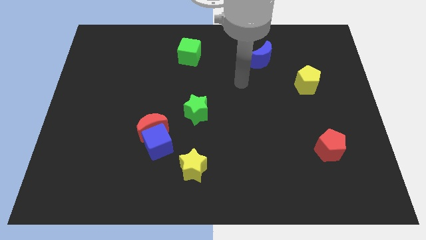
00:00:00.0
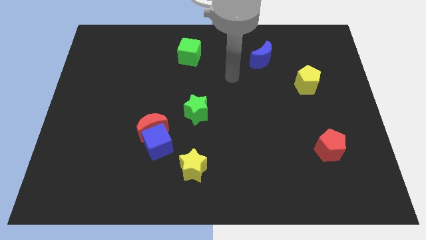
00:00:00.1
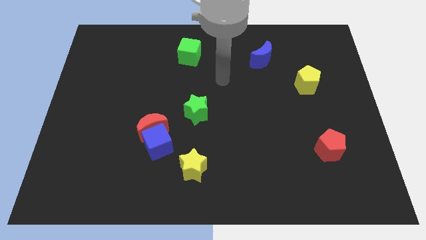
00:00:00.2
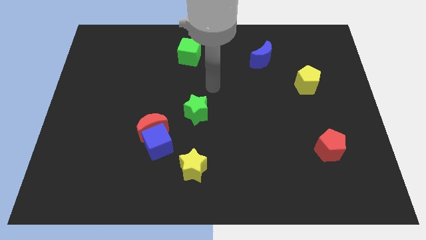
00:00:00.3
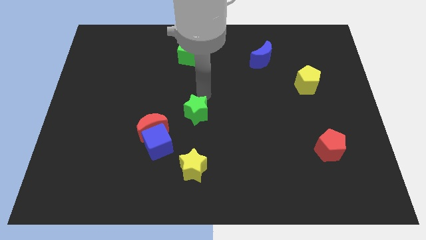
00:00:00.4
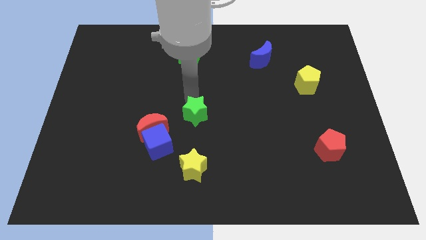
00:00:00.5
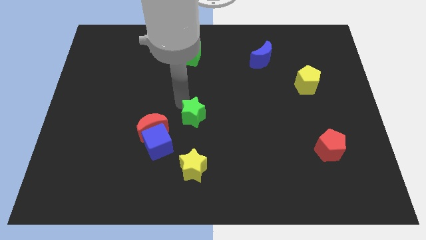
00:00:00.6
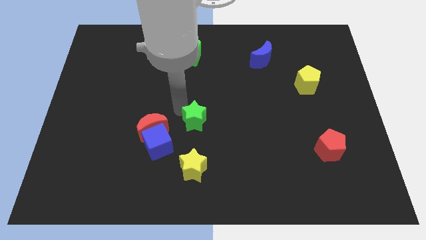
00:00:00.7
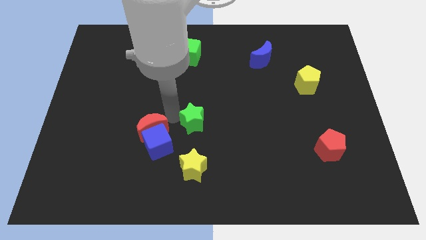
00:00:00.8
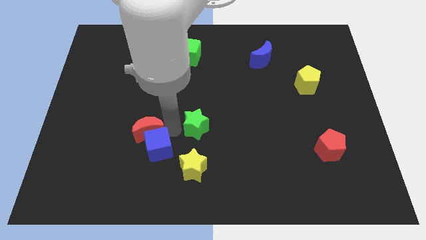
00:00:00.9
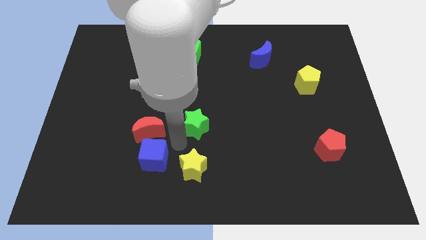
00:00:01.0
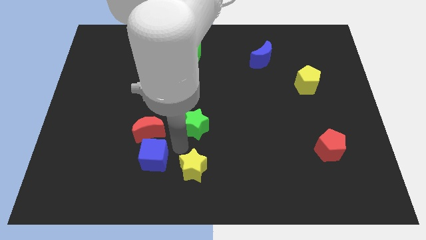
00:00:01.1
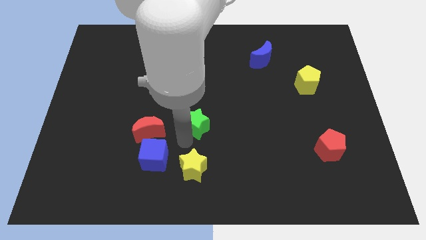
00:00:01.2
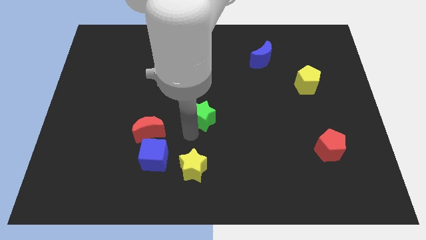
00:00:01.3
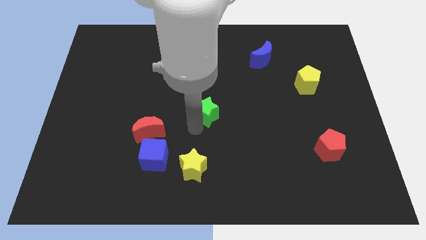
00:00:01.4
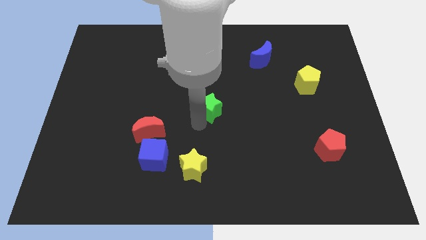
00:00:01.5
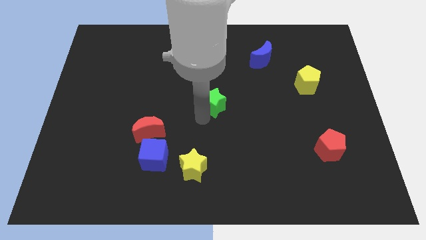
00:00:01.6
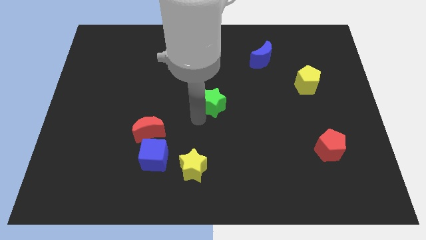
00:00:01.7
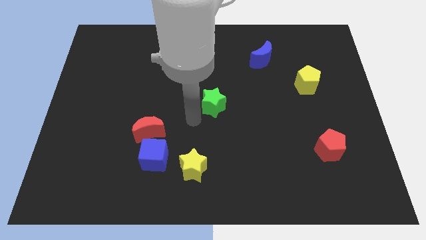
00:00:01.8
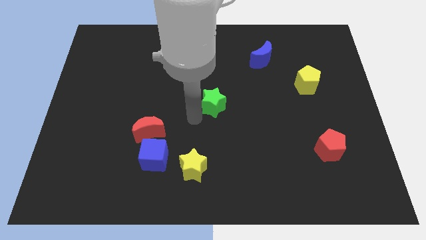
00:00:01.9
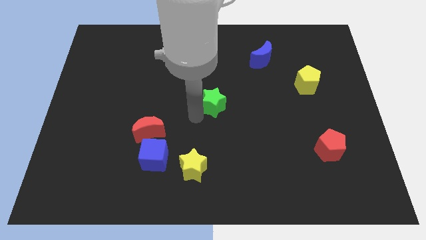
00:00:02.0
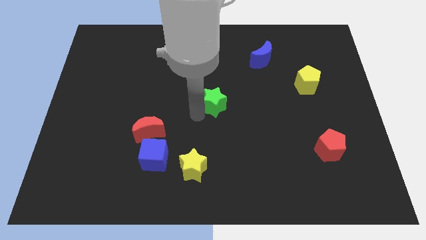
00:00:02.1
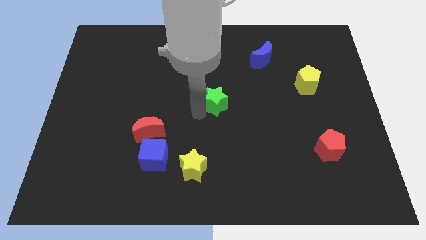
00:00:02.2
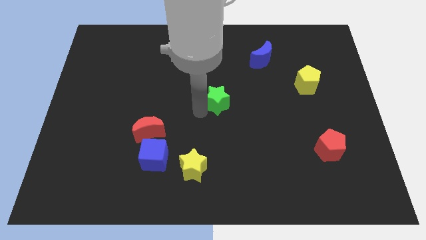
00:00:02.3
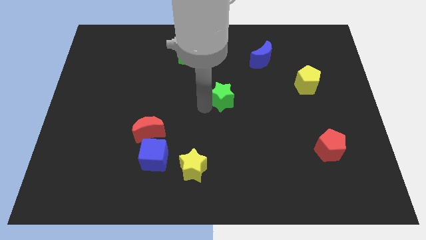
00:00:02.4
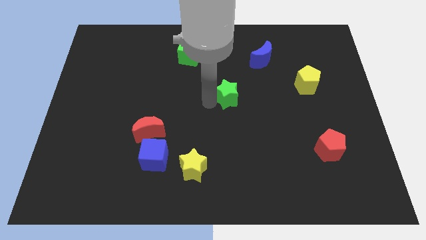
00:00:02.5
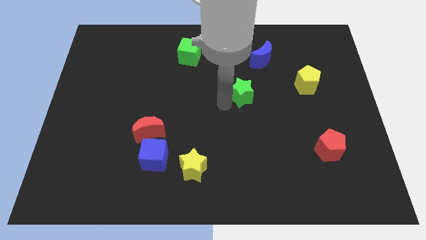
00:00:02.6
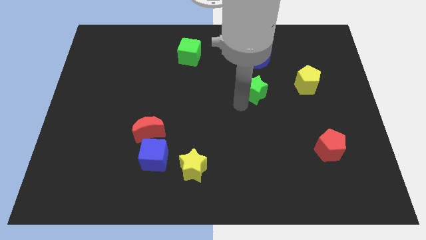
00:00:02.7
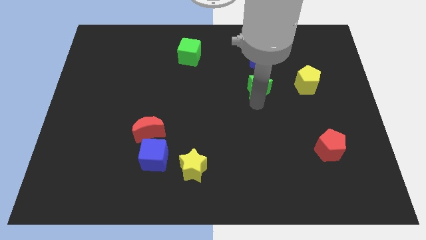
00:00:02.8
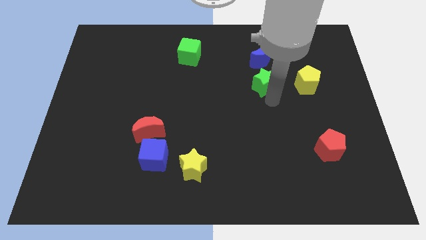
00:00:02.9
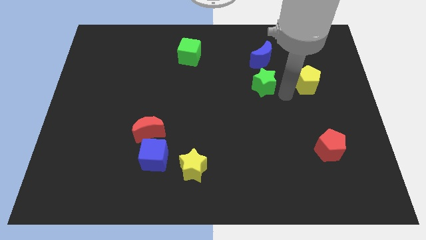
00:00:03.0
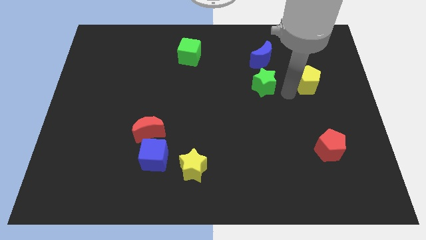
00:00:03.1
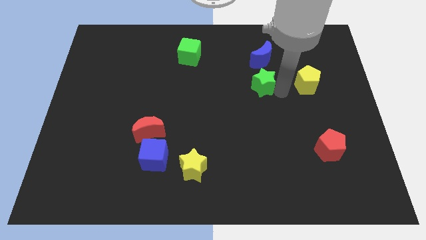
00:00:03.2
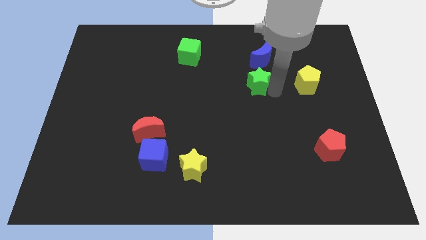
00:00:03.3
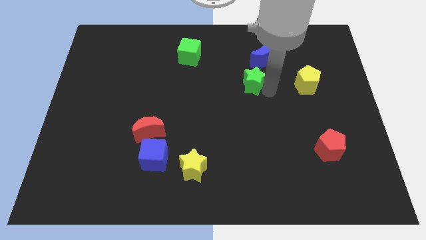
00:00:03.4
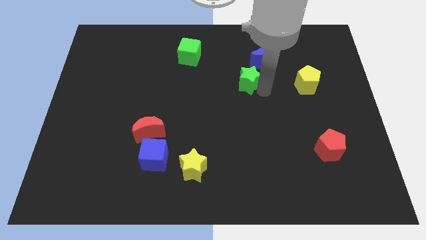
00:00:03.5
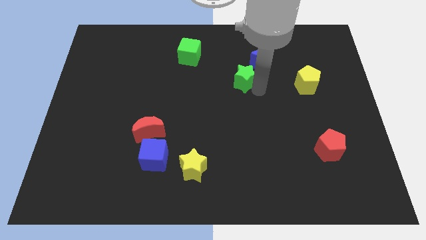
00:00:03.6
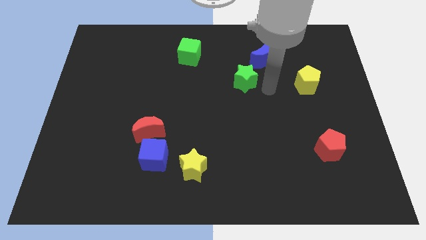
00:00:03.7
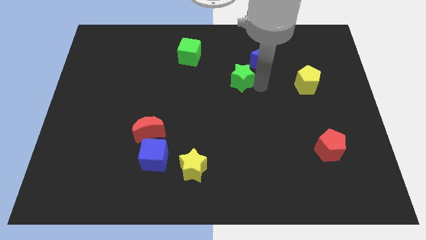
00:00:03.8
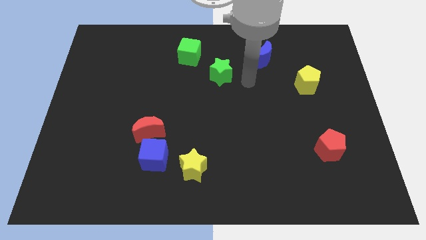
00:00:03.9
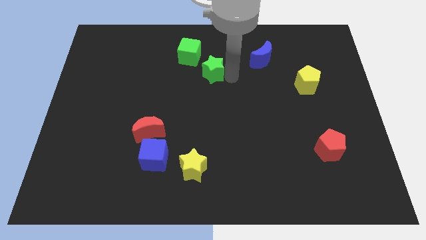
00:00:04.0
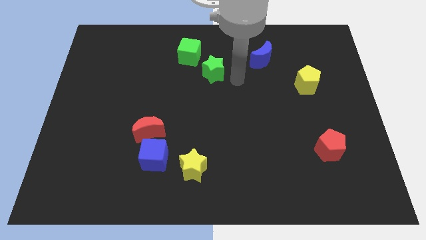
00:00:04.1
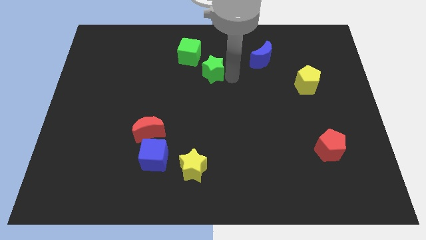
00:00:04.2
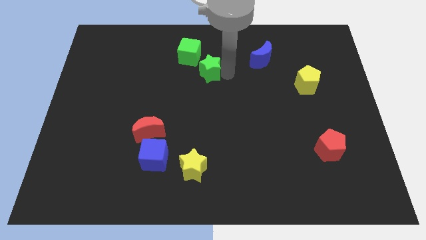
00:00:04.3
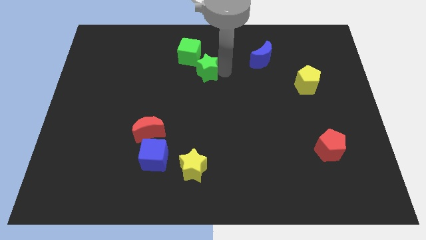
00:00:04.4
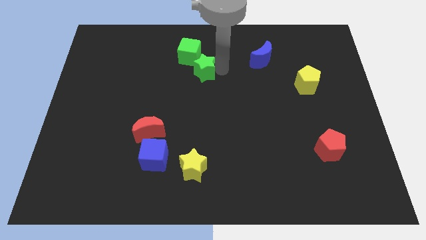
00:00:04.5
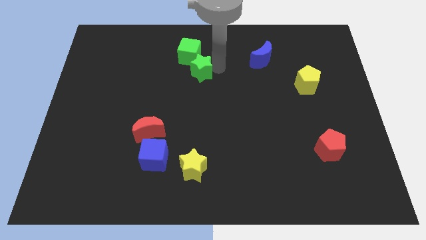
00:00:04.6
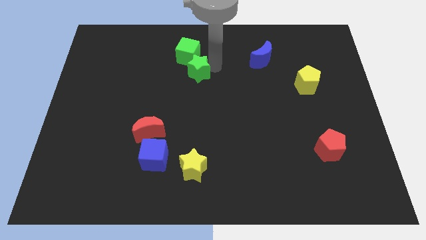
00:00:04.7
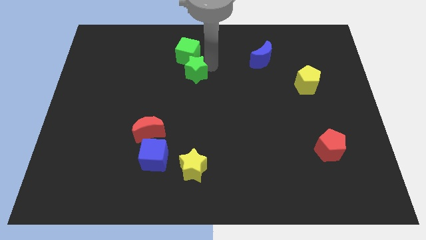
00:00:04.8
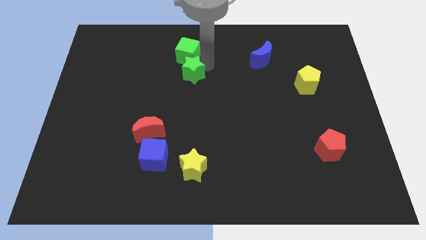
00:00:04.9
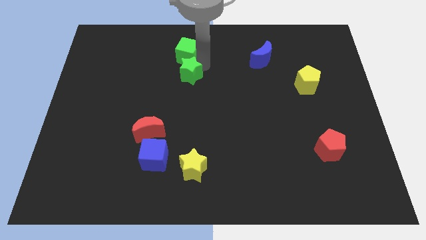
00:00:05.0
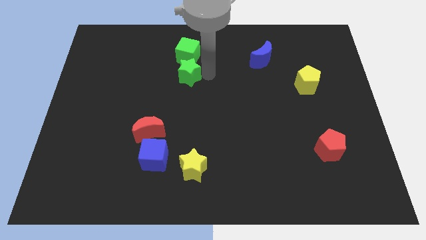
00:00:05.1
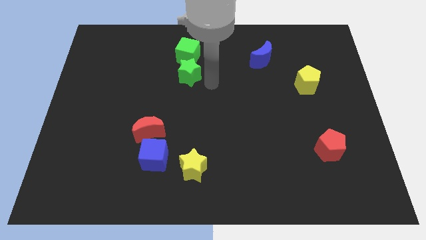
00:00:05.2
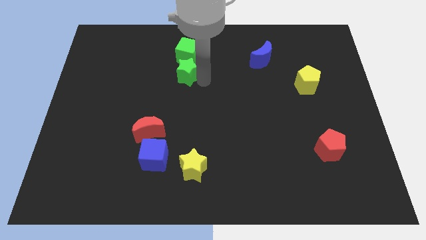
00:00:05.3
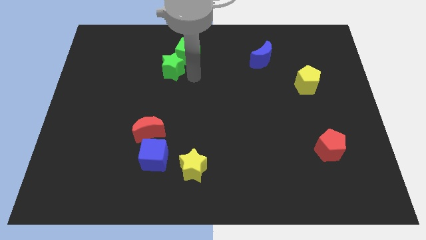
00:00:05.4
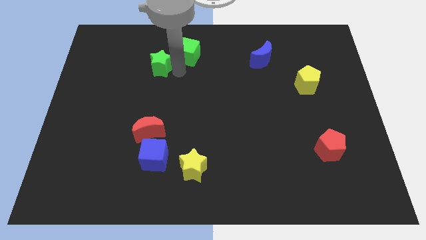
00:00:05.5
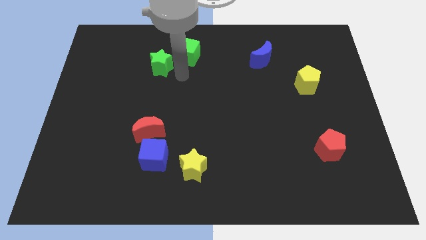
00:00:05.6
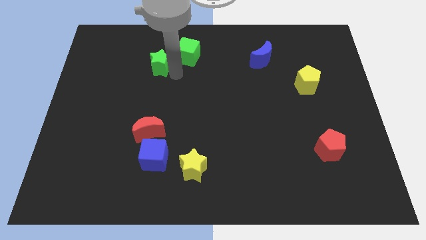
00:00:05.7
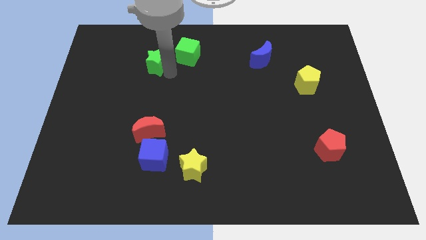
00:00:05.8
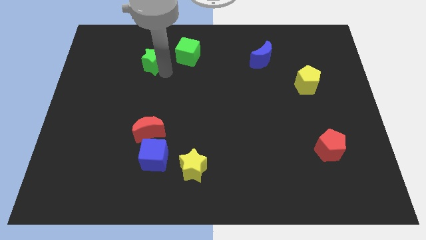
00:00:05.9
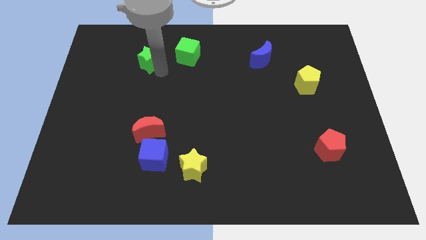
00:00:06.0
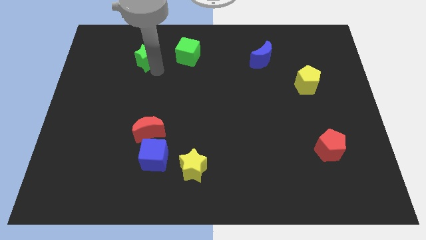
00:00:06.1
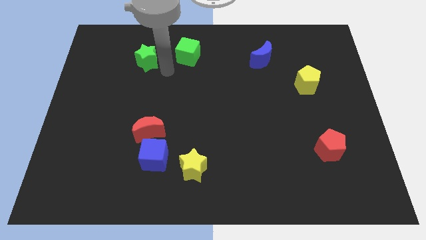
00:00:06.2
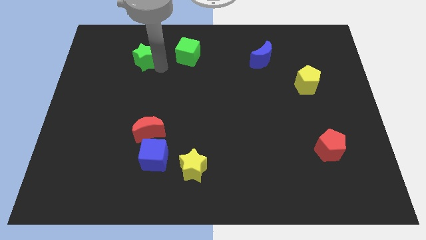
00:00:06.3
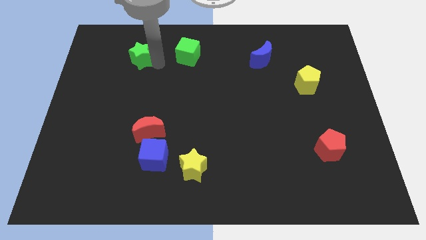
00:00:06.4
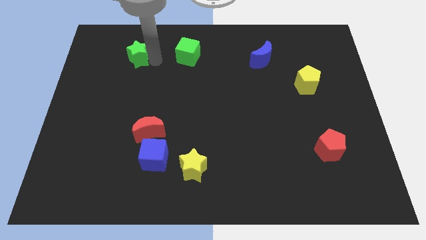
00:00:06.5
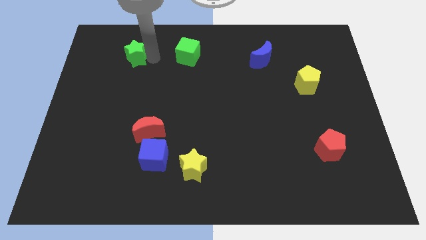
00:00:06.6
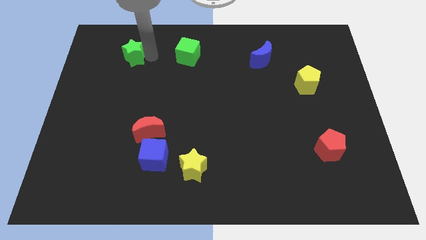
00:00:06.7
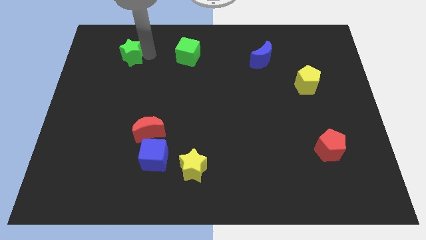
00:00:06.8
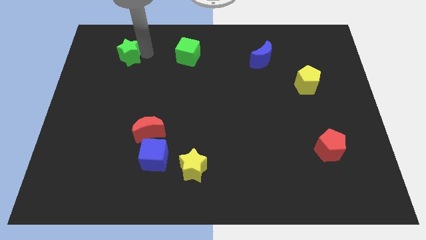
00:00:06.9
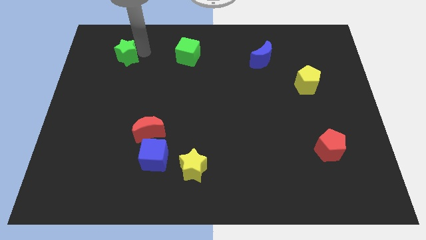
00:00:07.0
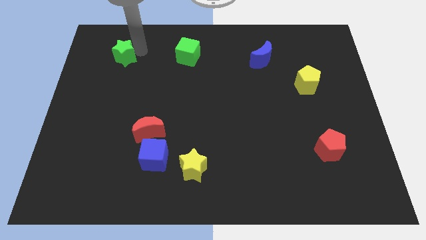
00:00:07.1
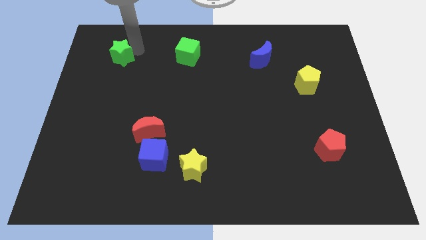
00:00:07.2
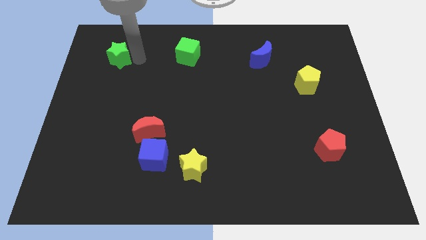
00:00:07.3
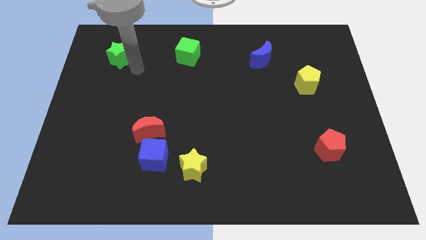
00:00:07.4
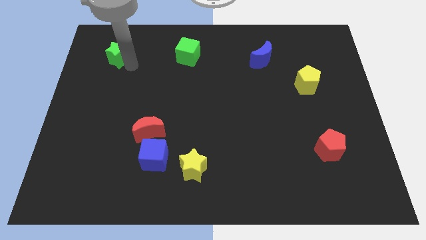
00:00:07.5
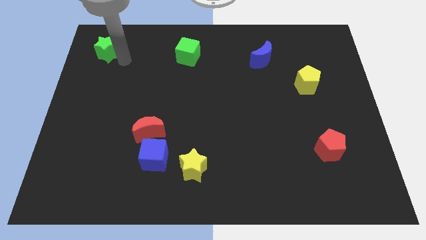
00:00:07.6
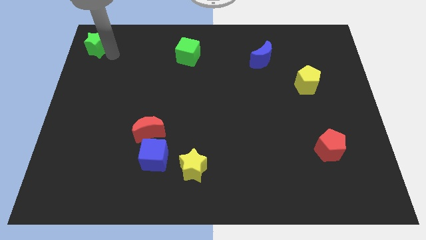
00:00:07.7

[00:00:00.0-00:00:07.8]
move the green star to the top left corner
